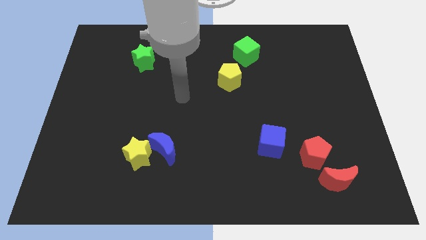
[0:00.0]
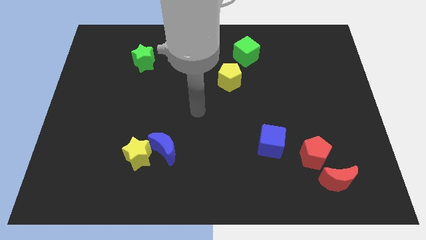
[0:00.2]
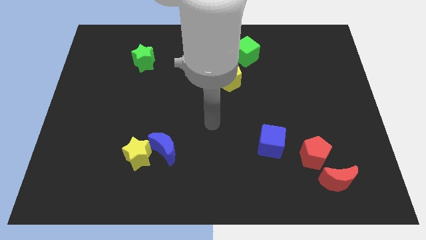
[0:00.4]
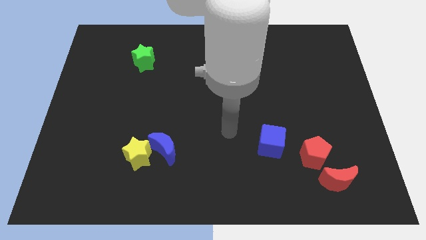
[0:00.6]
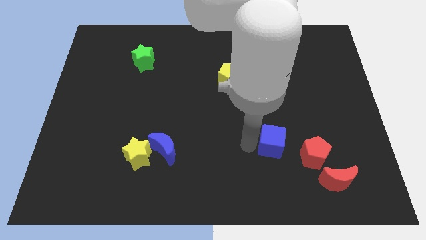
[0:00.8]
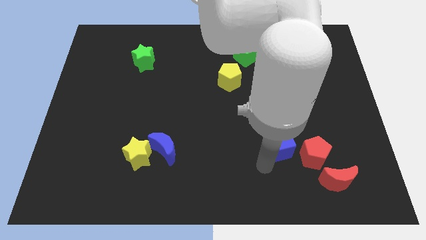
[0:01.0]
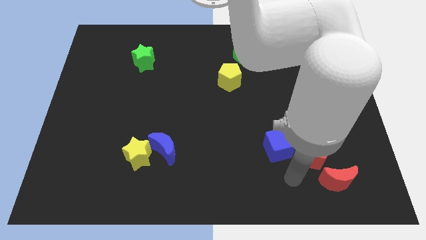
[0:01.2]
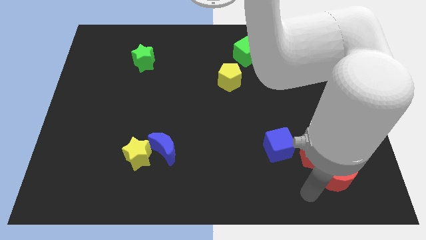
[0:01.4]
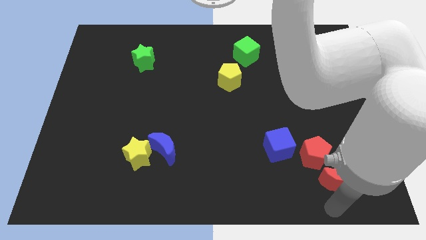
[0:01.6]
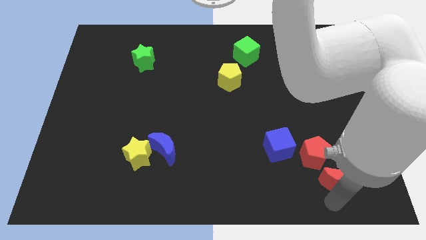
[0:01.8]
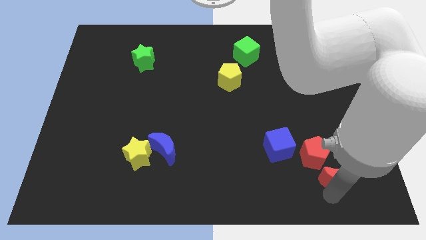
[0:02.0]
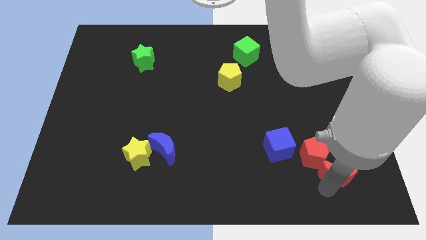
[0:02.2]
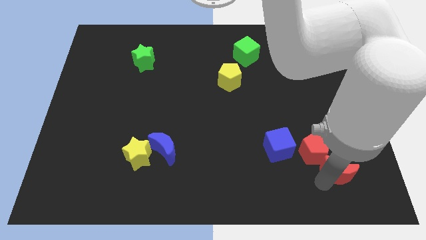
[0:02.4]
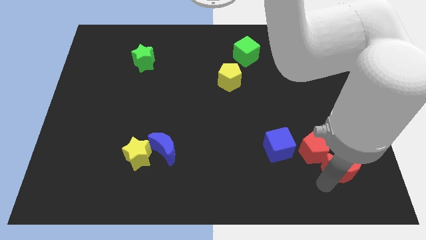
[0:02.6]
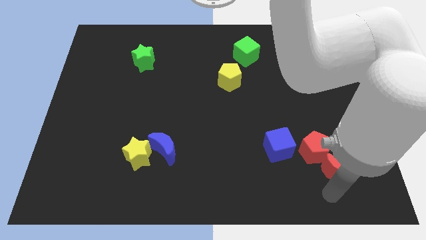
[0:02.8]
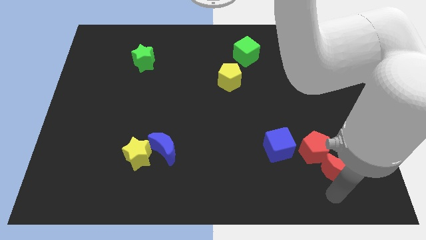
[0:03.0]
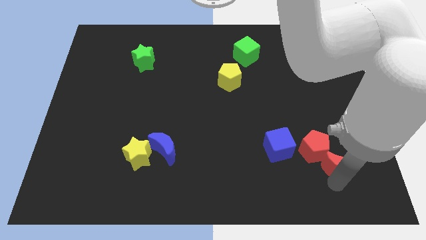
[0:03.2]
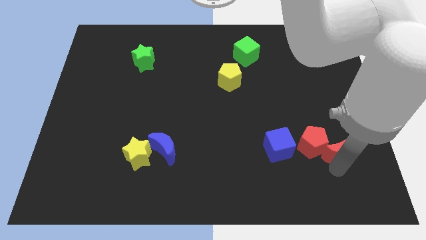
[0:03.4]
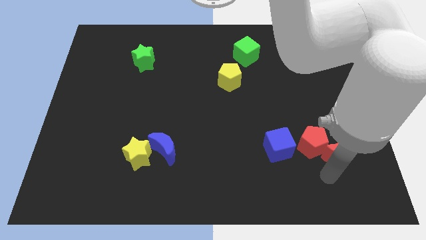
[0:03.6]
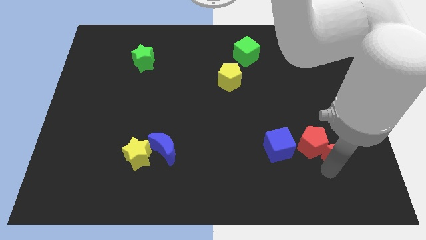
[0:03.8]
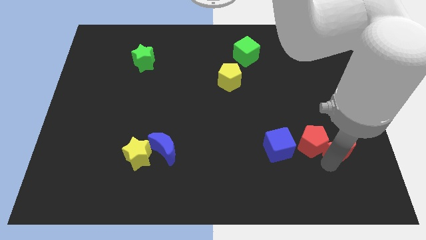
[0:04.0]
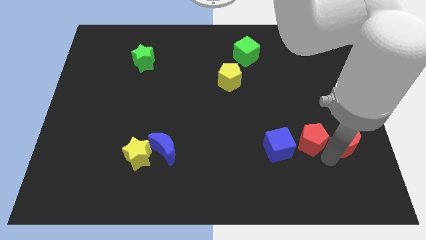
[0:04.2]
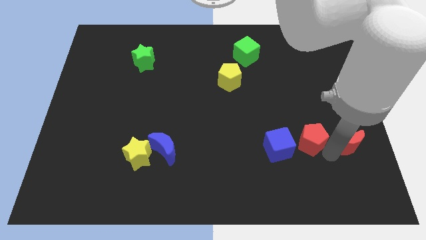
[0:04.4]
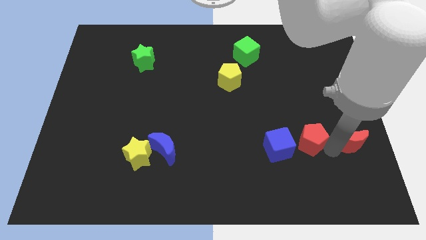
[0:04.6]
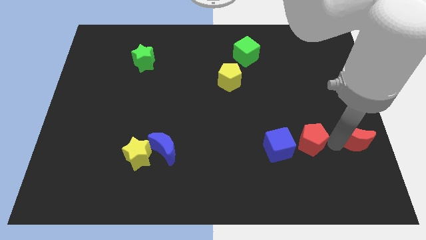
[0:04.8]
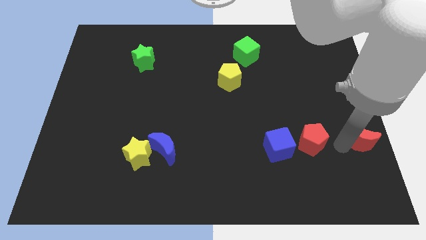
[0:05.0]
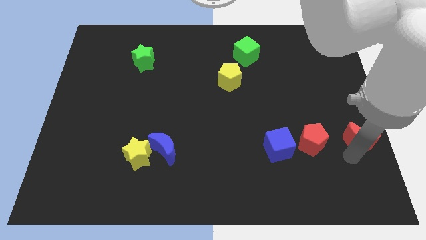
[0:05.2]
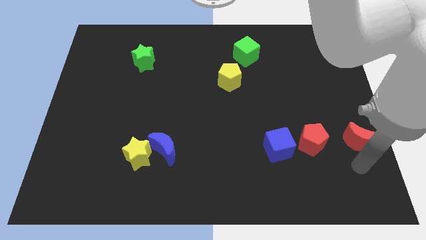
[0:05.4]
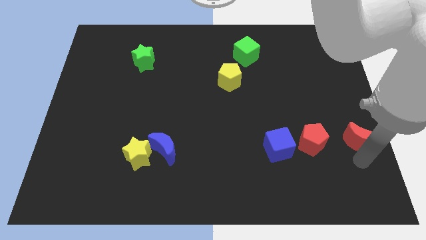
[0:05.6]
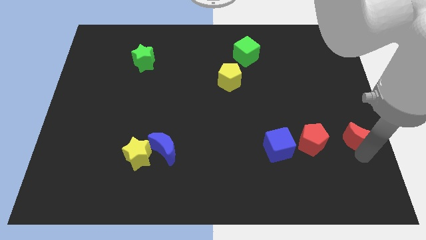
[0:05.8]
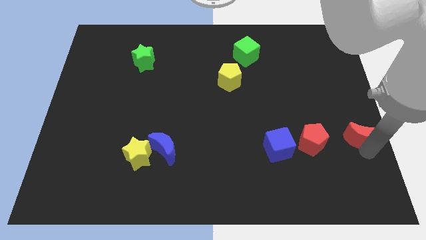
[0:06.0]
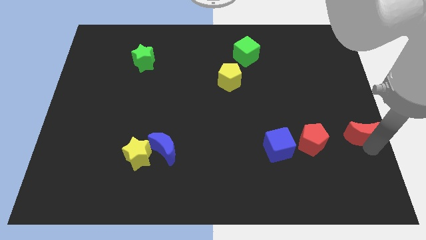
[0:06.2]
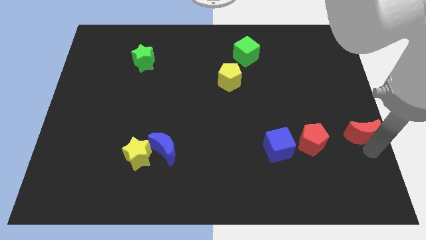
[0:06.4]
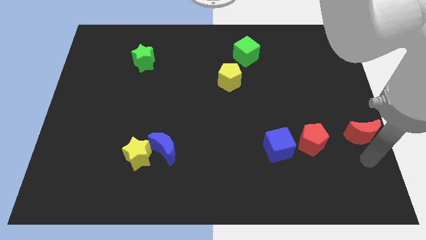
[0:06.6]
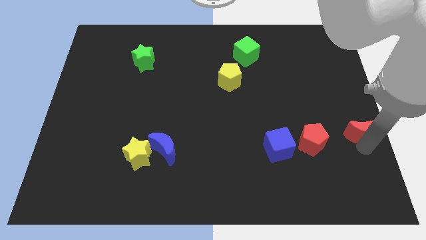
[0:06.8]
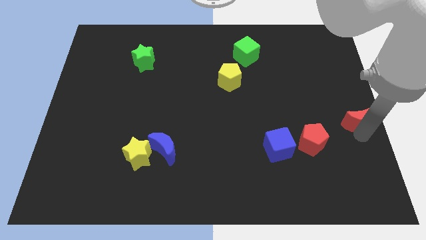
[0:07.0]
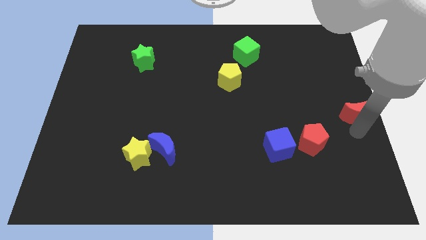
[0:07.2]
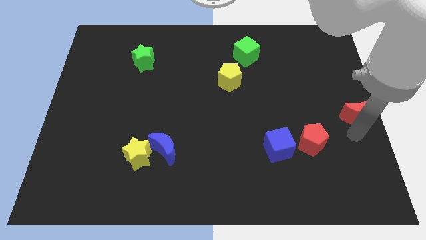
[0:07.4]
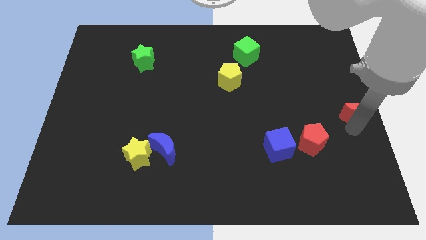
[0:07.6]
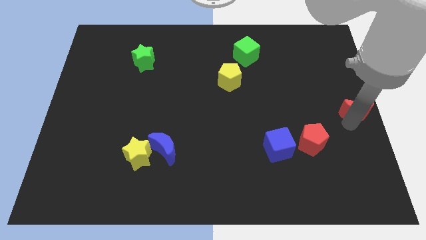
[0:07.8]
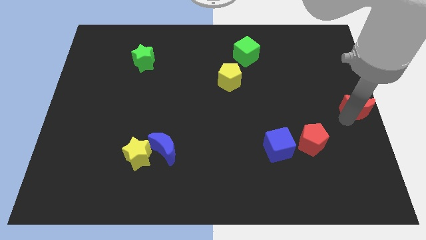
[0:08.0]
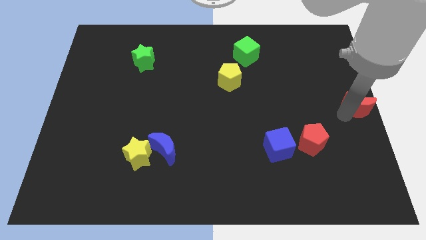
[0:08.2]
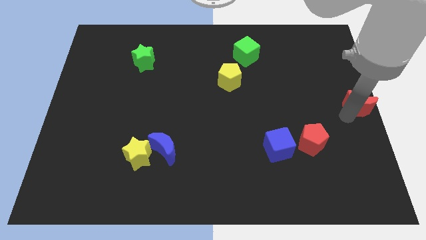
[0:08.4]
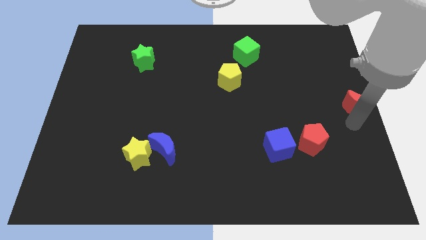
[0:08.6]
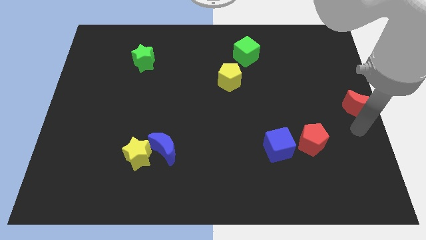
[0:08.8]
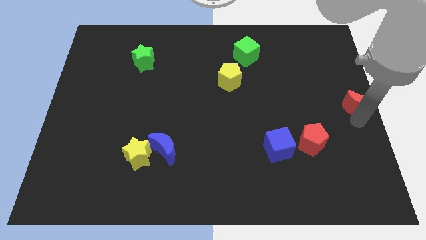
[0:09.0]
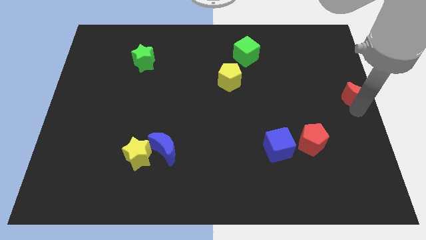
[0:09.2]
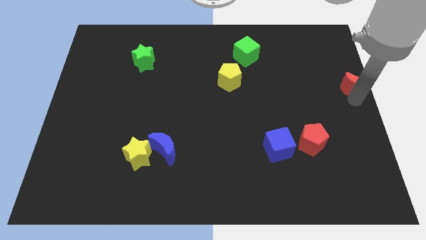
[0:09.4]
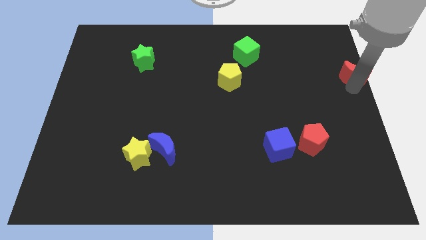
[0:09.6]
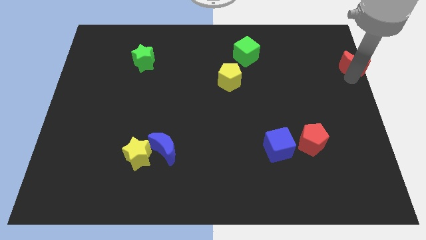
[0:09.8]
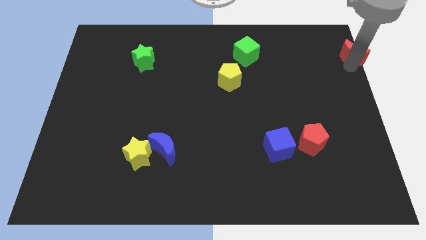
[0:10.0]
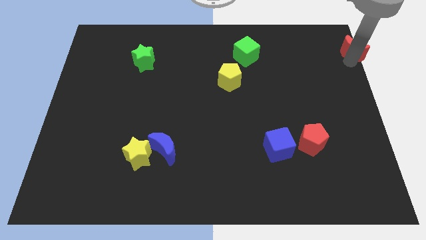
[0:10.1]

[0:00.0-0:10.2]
put the red moon to the top right of the board

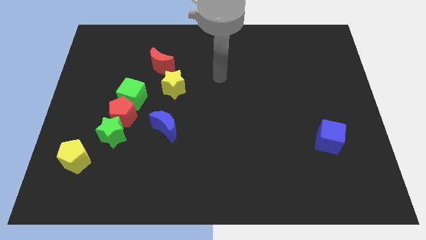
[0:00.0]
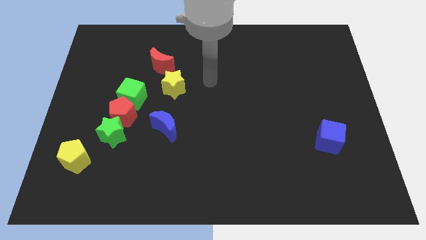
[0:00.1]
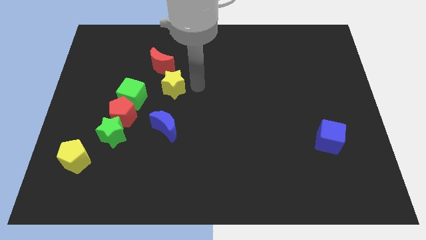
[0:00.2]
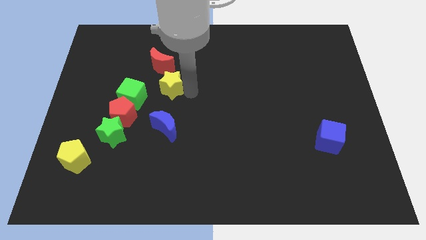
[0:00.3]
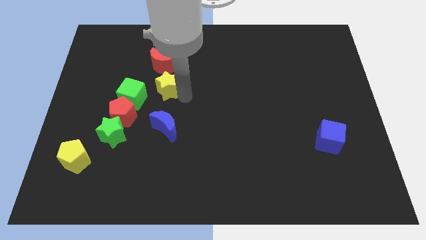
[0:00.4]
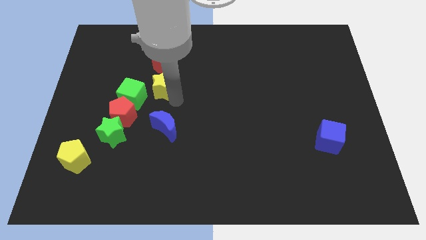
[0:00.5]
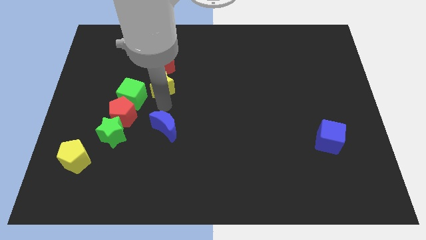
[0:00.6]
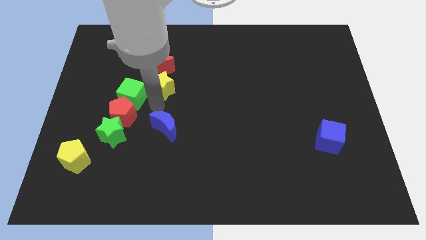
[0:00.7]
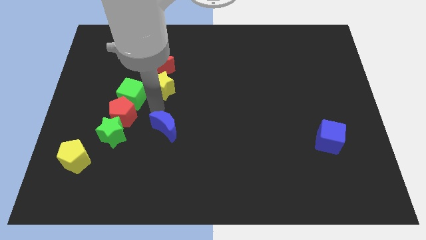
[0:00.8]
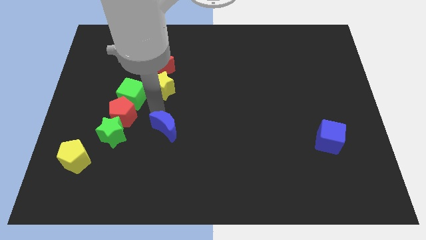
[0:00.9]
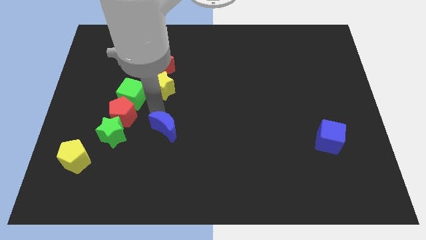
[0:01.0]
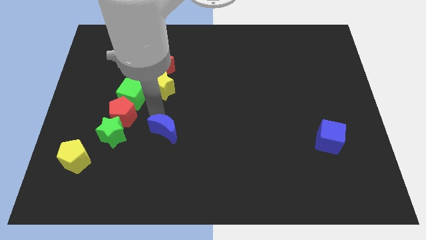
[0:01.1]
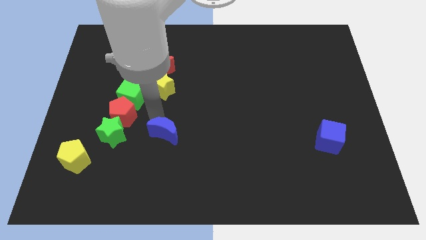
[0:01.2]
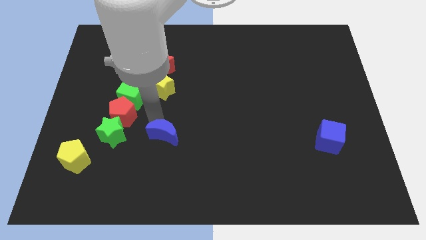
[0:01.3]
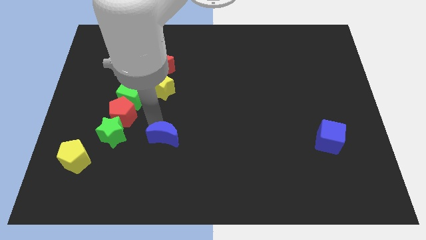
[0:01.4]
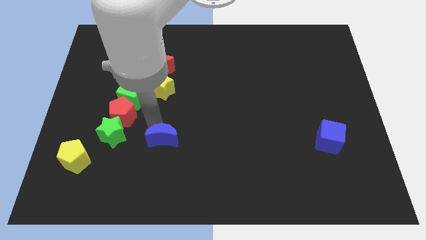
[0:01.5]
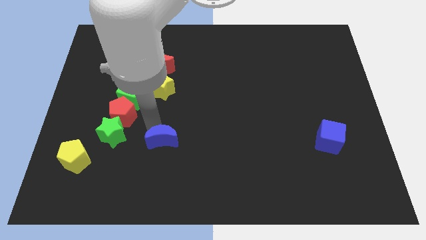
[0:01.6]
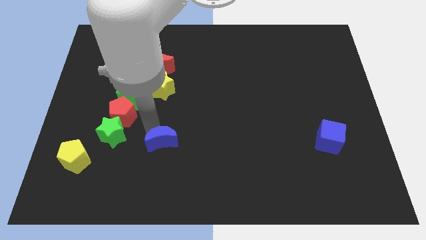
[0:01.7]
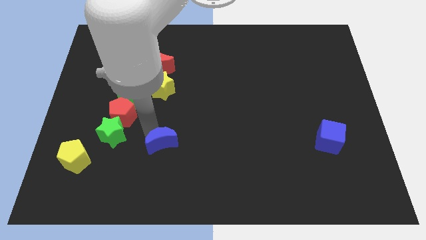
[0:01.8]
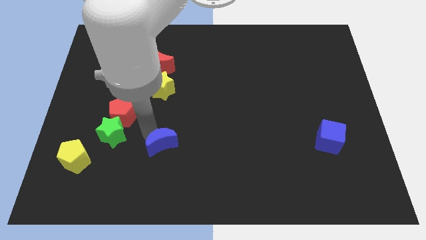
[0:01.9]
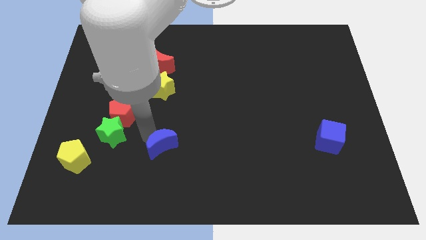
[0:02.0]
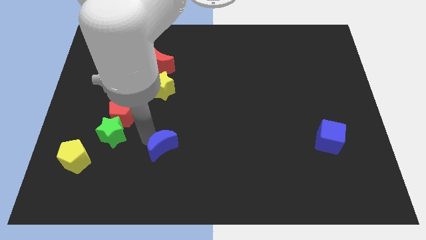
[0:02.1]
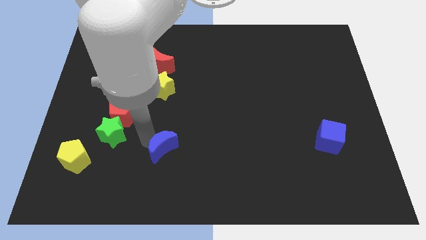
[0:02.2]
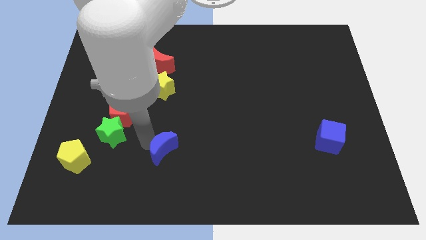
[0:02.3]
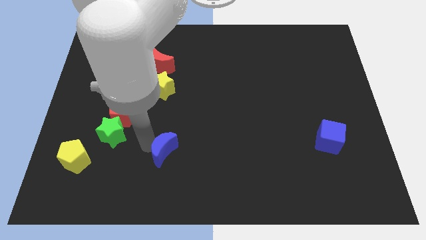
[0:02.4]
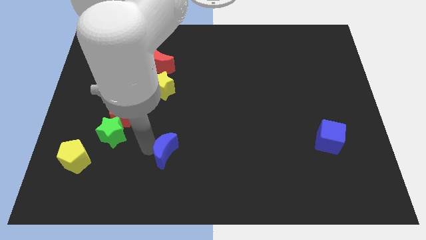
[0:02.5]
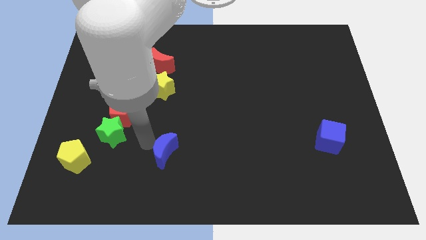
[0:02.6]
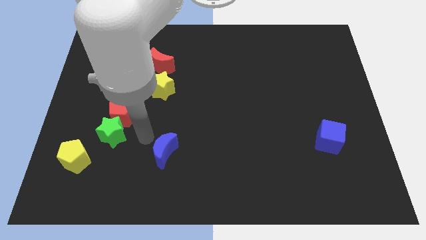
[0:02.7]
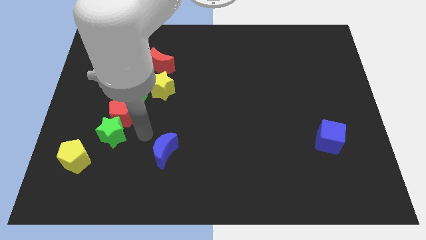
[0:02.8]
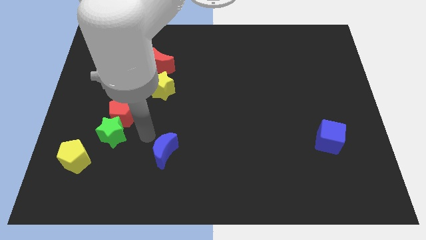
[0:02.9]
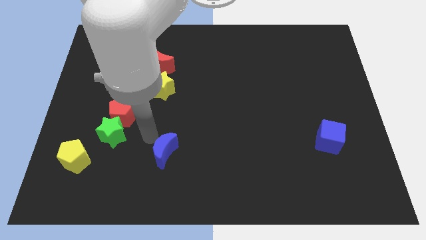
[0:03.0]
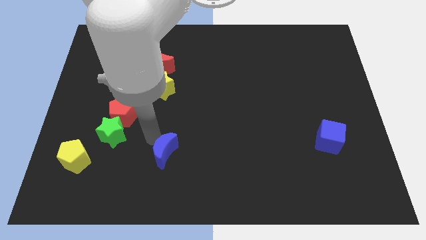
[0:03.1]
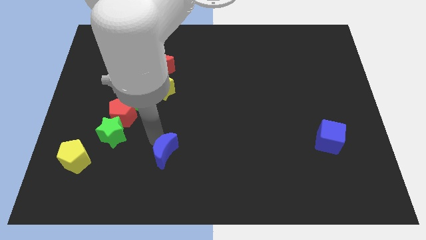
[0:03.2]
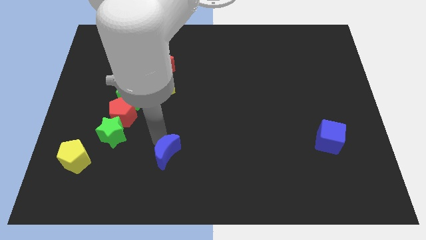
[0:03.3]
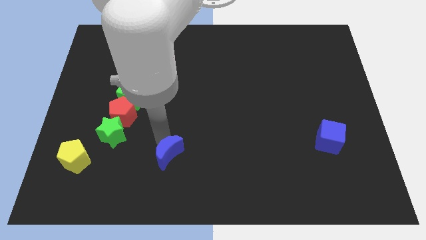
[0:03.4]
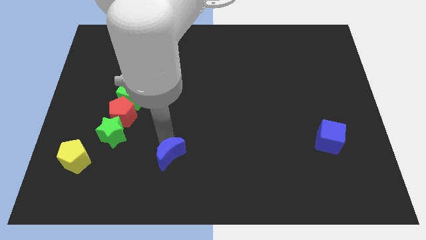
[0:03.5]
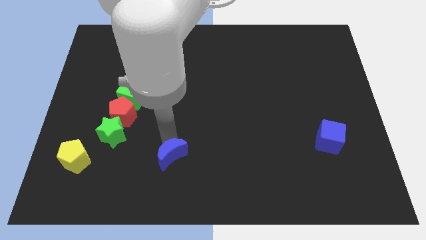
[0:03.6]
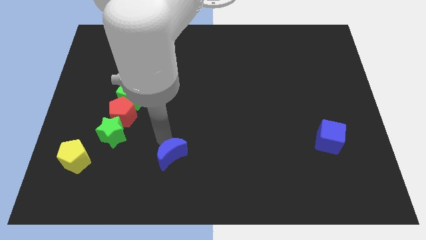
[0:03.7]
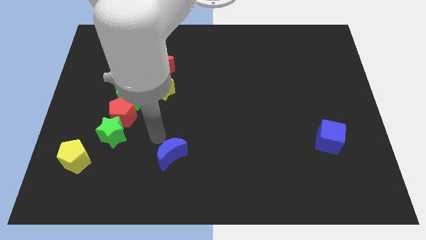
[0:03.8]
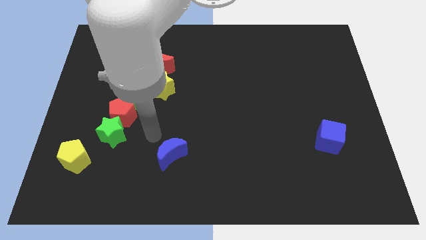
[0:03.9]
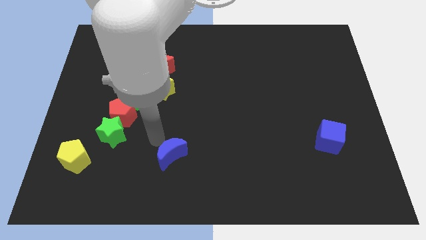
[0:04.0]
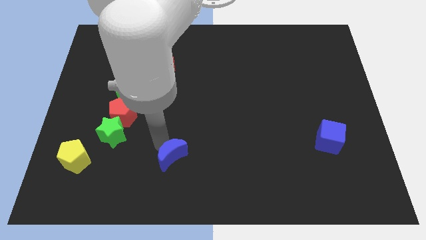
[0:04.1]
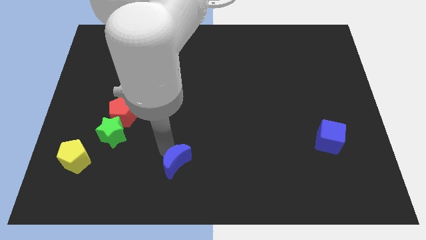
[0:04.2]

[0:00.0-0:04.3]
move the blue moon to the bottom side
